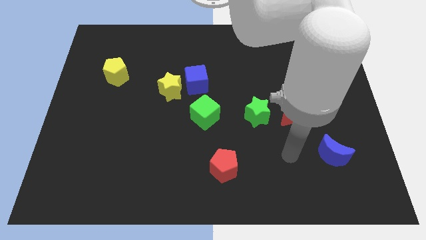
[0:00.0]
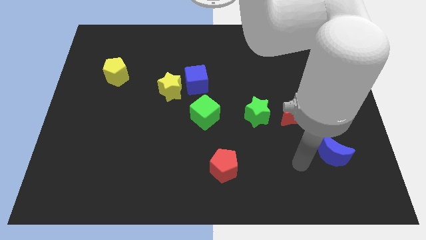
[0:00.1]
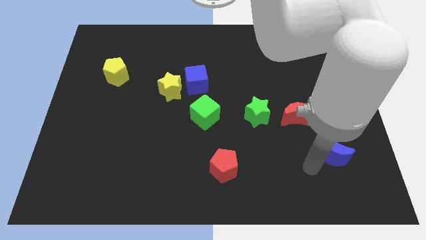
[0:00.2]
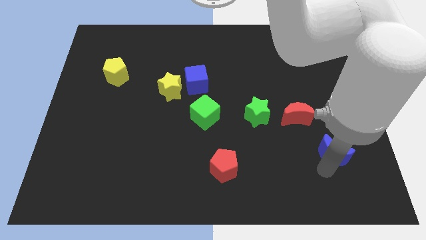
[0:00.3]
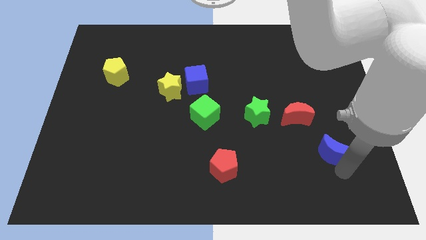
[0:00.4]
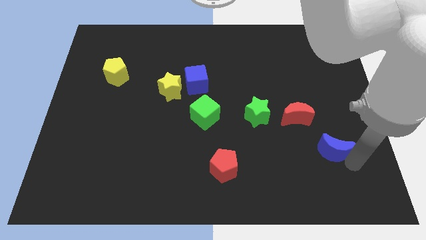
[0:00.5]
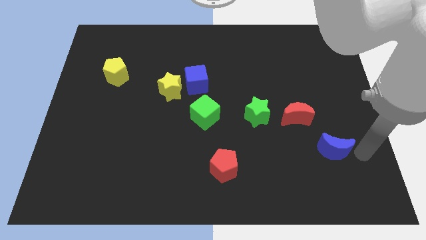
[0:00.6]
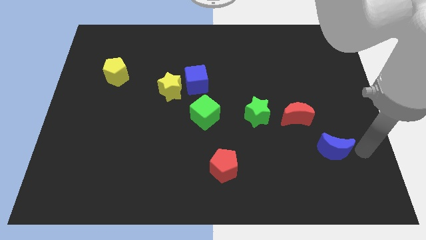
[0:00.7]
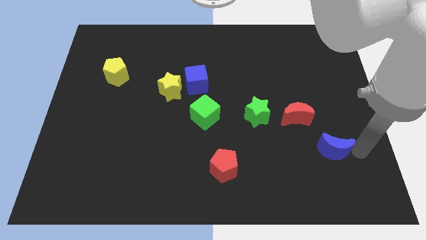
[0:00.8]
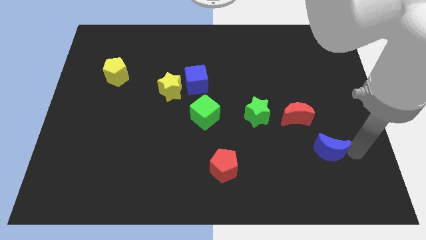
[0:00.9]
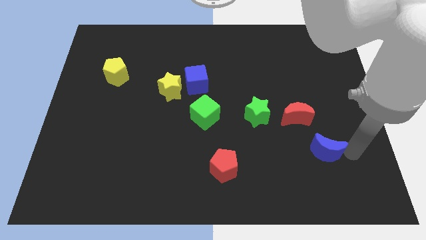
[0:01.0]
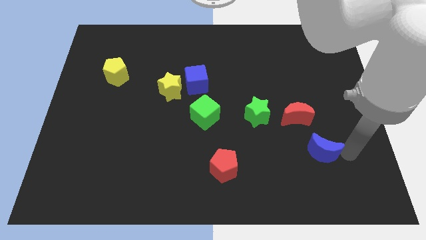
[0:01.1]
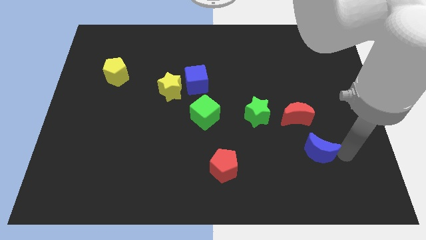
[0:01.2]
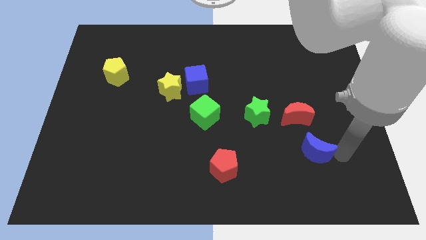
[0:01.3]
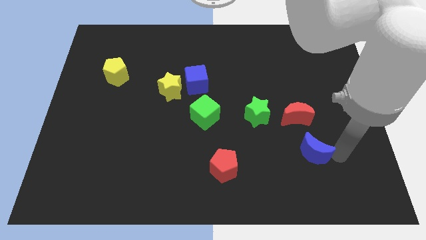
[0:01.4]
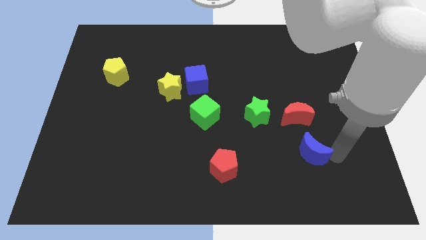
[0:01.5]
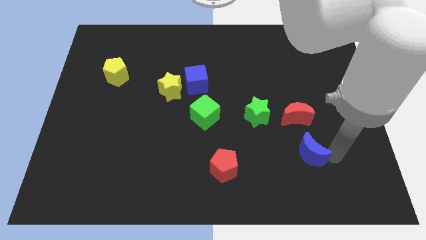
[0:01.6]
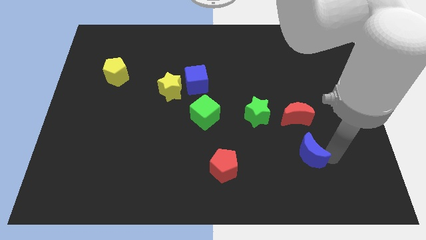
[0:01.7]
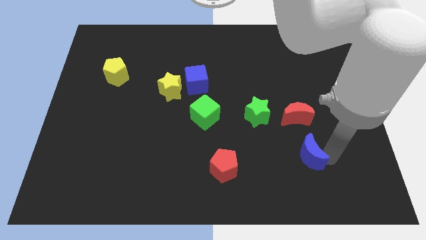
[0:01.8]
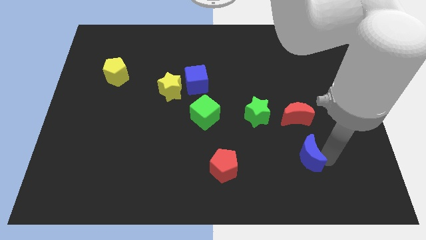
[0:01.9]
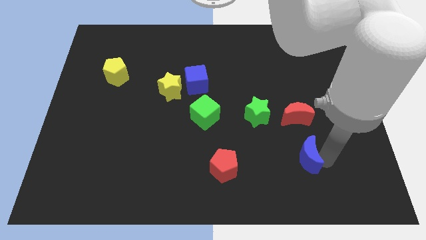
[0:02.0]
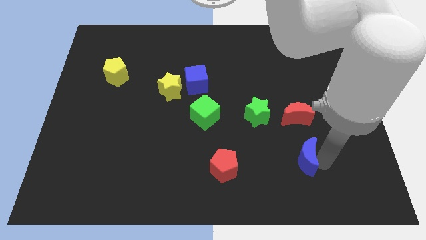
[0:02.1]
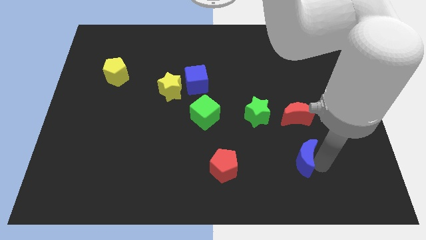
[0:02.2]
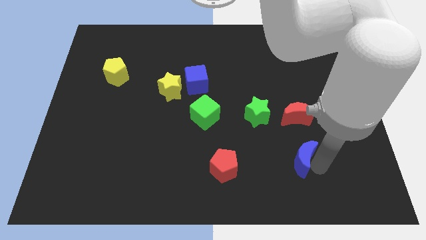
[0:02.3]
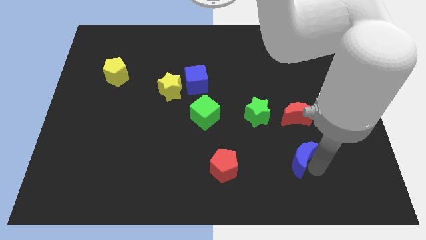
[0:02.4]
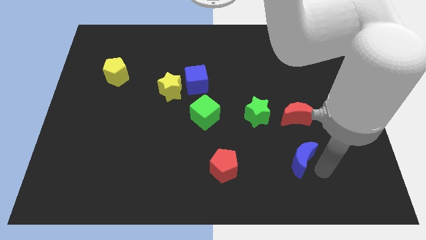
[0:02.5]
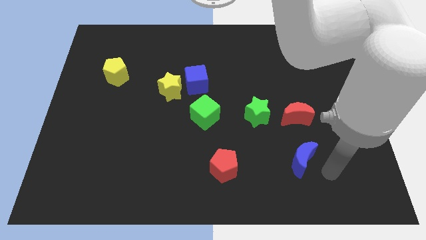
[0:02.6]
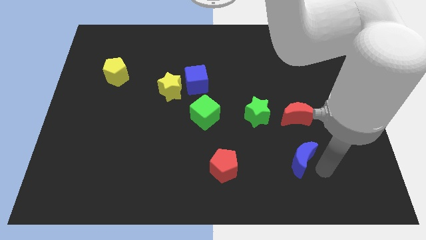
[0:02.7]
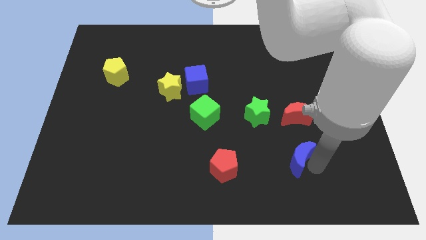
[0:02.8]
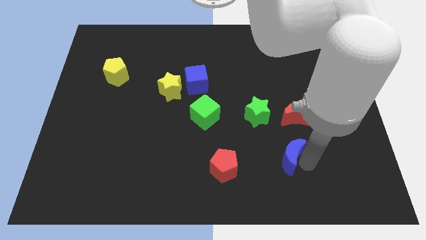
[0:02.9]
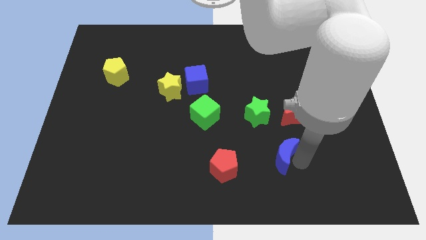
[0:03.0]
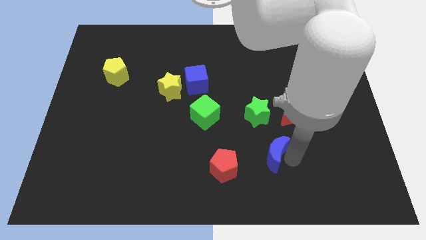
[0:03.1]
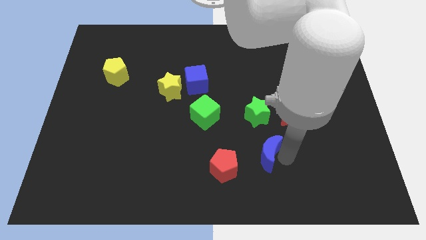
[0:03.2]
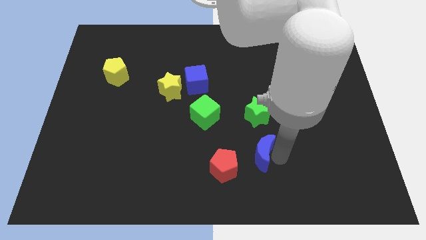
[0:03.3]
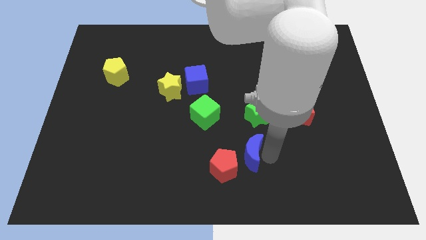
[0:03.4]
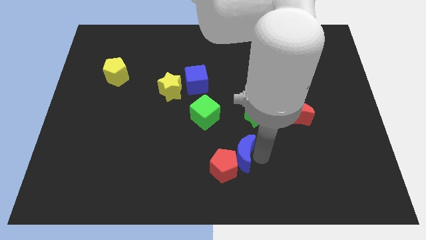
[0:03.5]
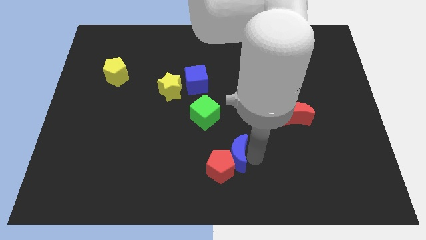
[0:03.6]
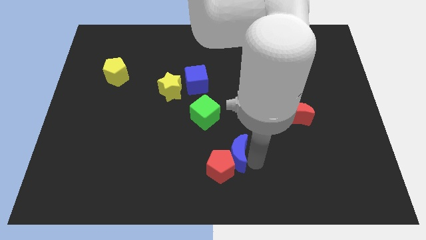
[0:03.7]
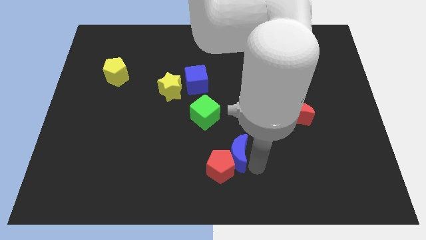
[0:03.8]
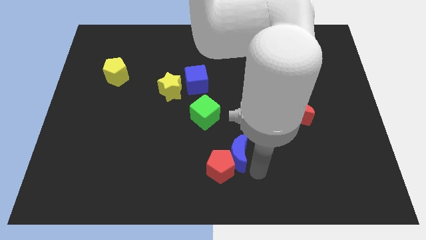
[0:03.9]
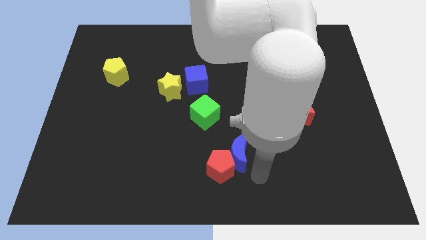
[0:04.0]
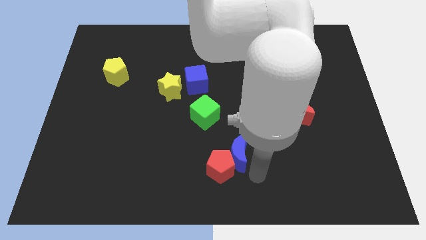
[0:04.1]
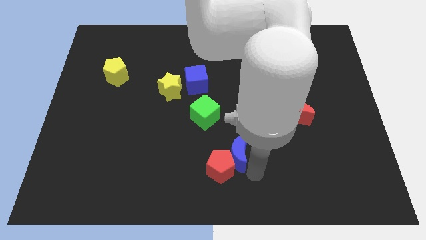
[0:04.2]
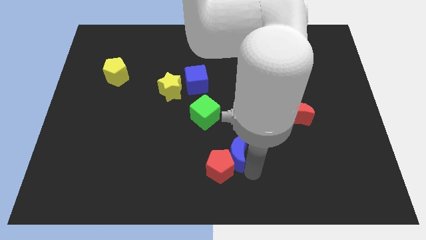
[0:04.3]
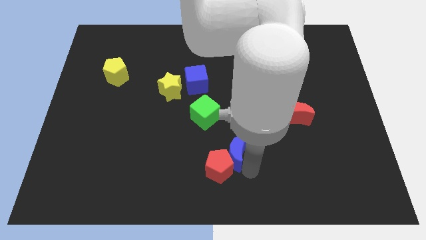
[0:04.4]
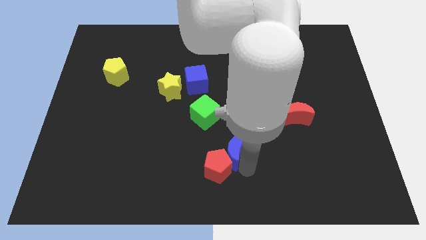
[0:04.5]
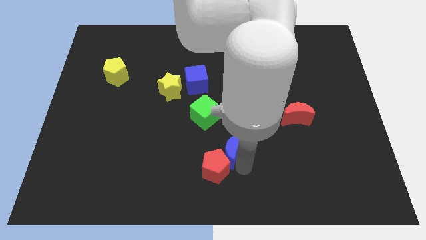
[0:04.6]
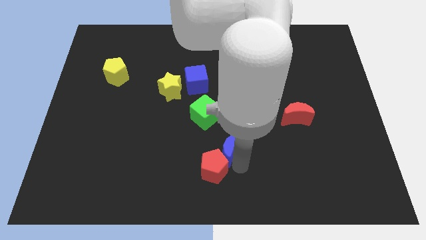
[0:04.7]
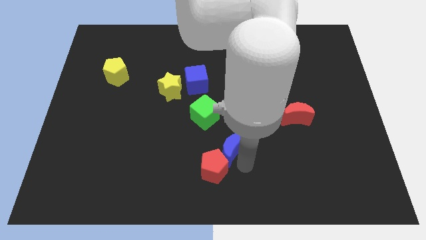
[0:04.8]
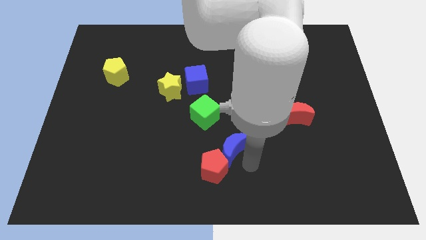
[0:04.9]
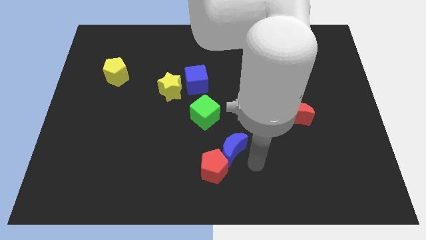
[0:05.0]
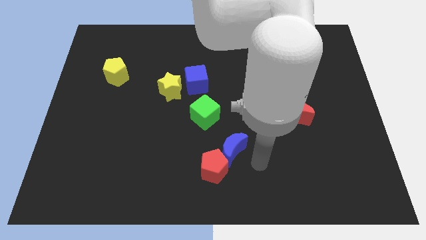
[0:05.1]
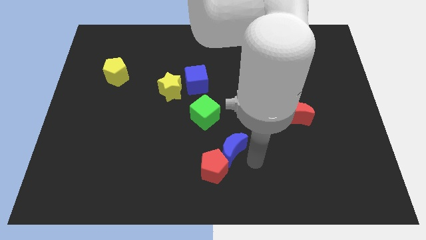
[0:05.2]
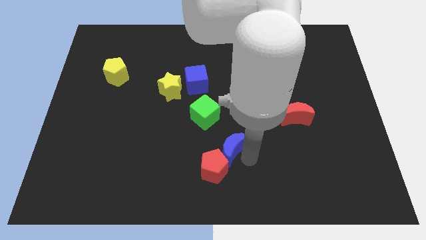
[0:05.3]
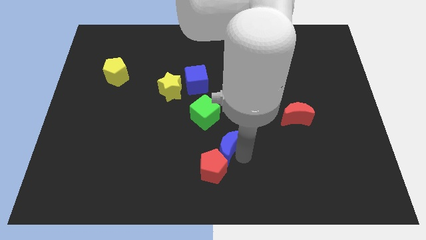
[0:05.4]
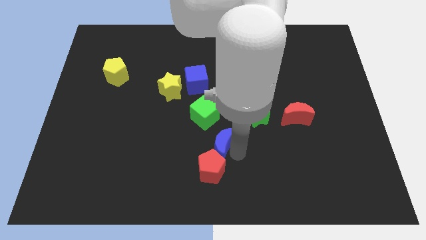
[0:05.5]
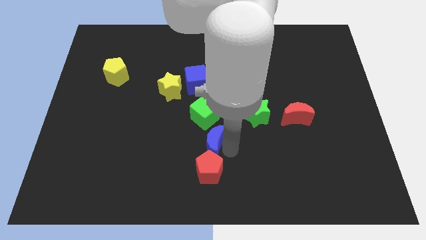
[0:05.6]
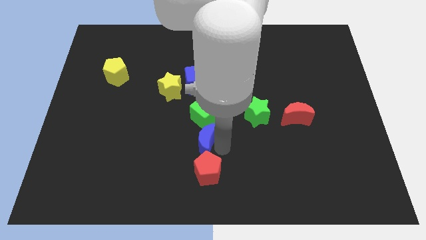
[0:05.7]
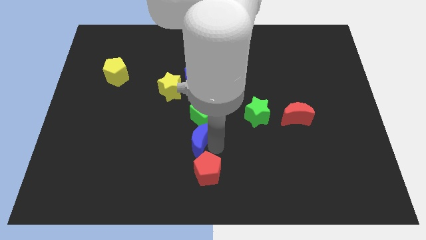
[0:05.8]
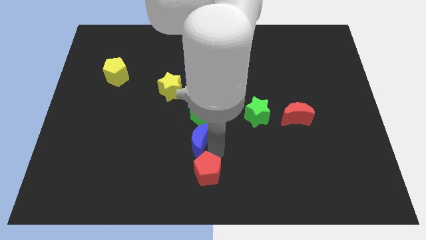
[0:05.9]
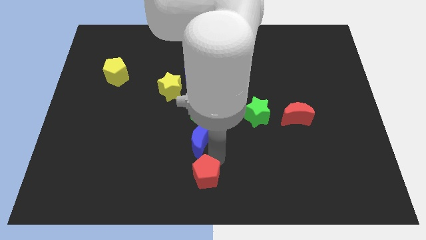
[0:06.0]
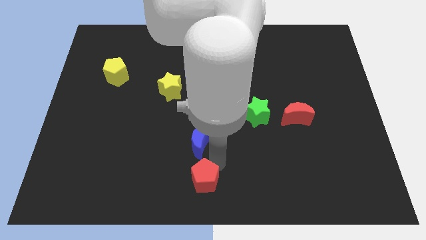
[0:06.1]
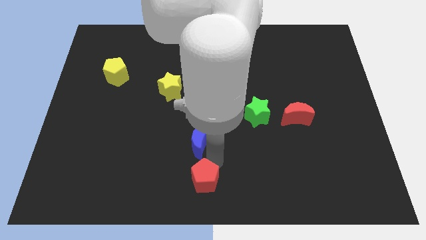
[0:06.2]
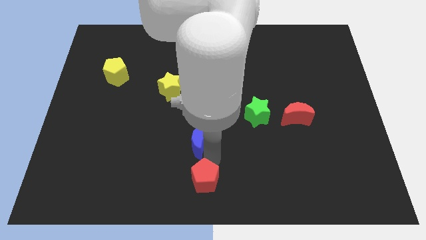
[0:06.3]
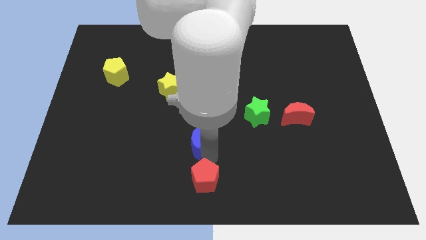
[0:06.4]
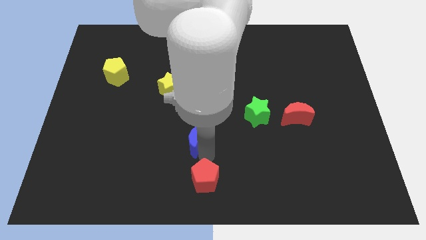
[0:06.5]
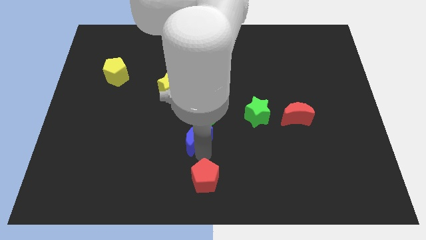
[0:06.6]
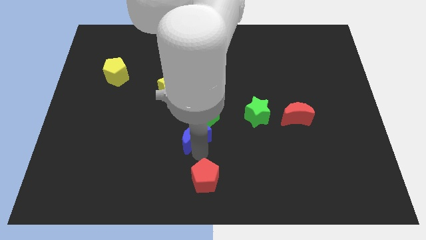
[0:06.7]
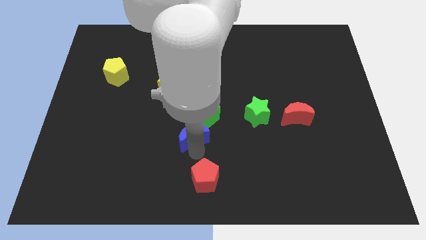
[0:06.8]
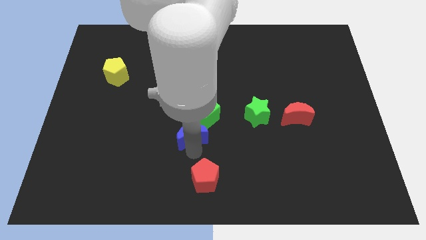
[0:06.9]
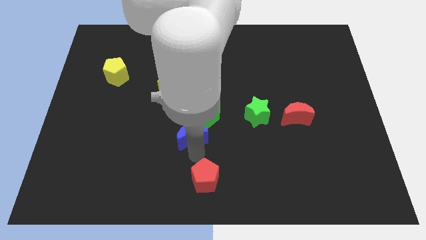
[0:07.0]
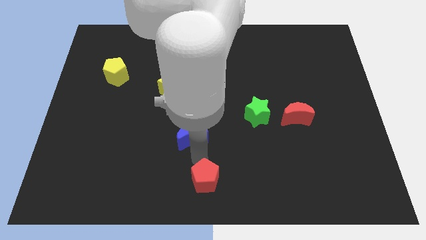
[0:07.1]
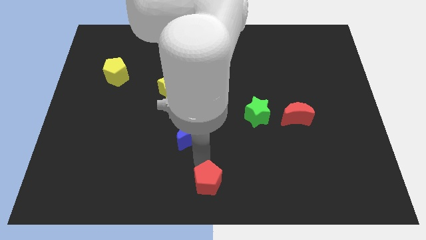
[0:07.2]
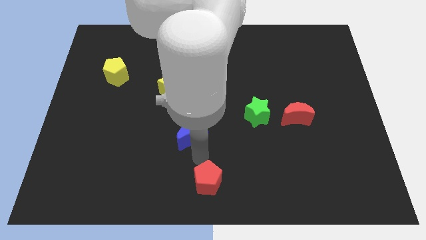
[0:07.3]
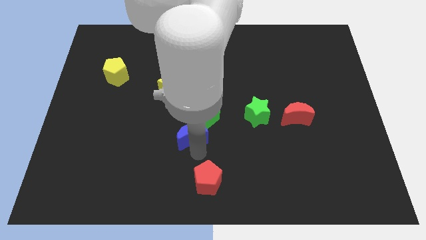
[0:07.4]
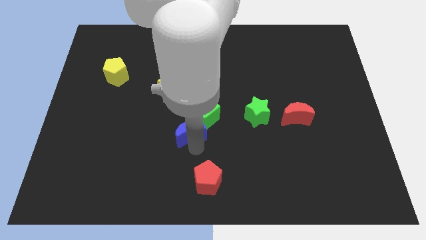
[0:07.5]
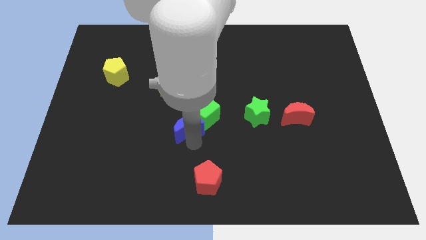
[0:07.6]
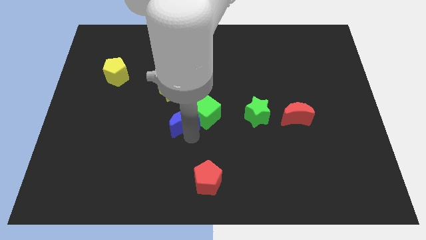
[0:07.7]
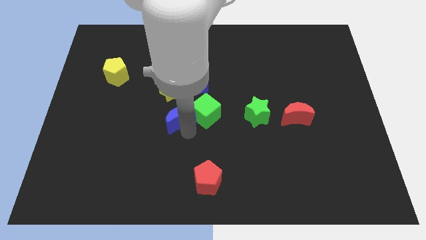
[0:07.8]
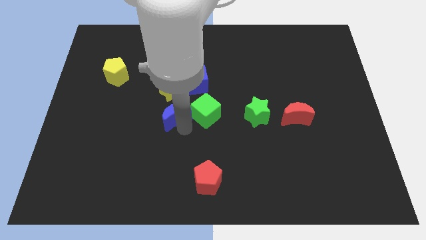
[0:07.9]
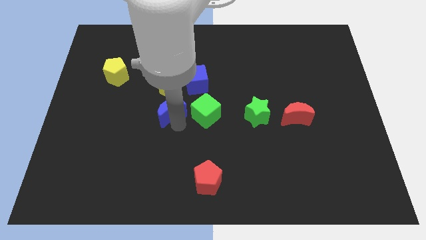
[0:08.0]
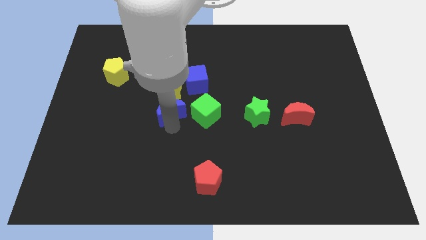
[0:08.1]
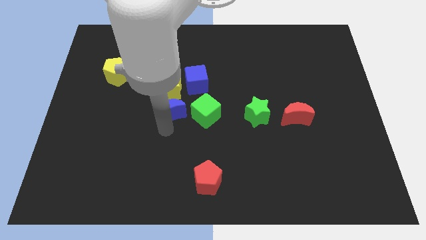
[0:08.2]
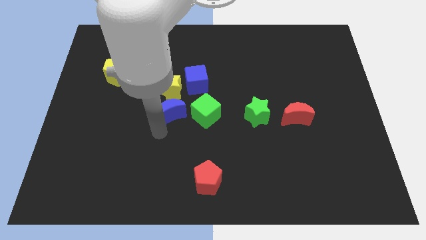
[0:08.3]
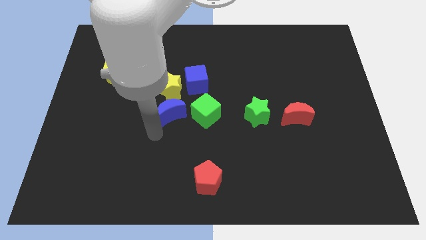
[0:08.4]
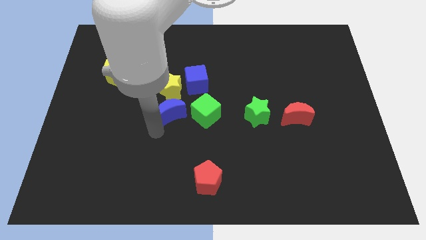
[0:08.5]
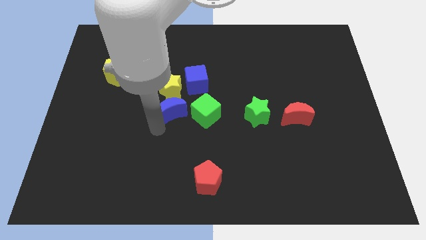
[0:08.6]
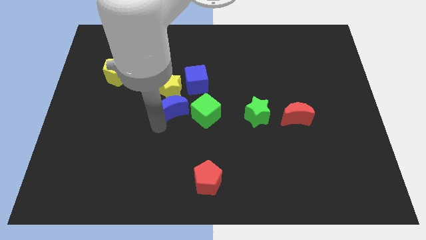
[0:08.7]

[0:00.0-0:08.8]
push the blue moon diagonally up and to the left of the green cube
